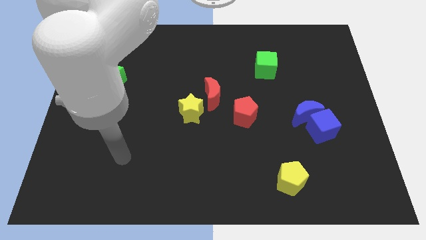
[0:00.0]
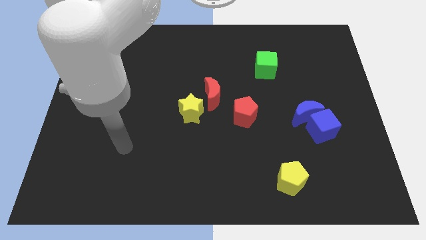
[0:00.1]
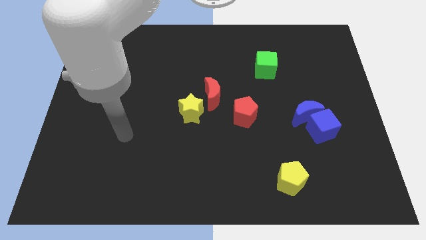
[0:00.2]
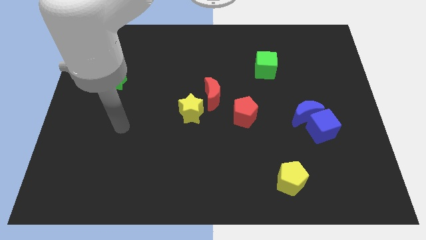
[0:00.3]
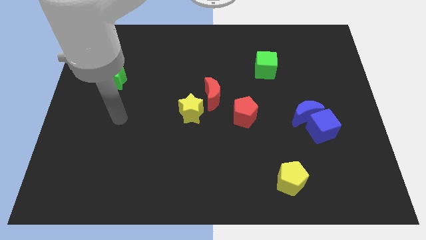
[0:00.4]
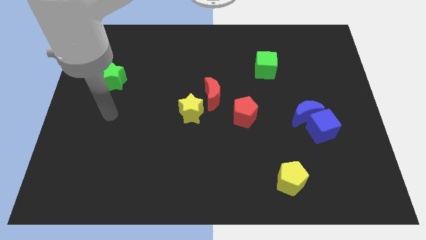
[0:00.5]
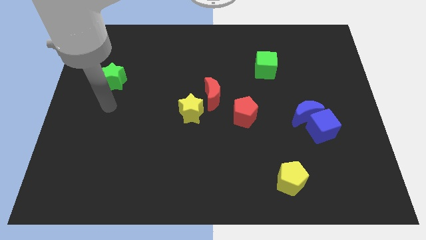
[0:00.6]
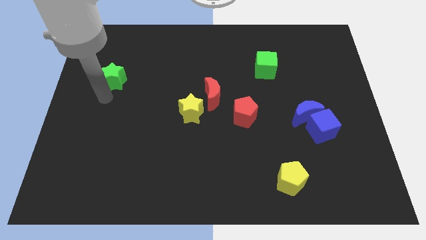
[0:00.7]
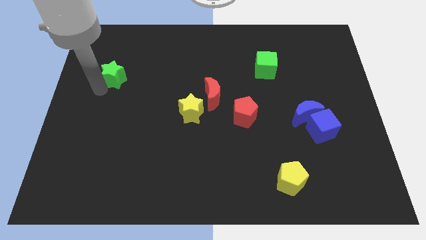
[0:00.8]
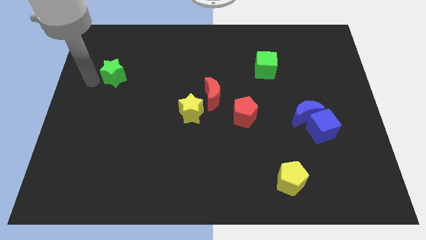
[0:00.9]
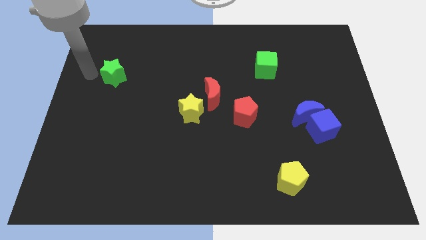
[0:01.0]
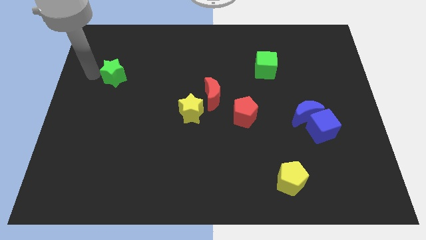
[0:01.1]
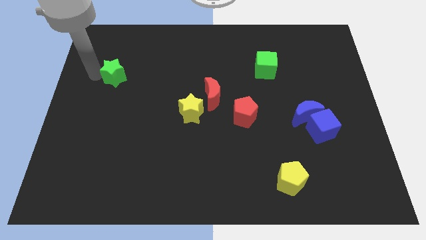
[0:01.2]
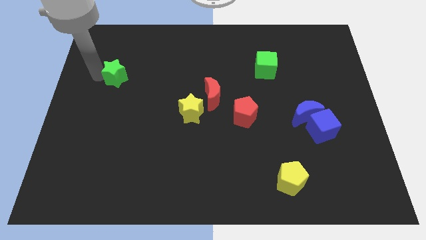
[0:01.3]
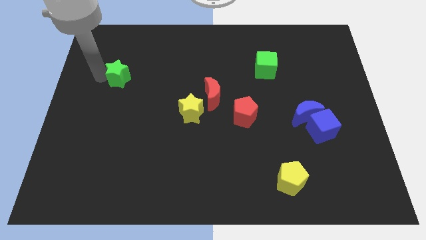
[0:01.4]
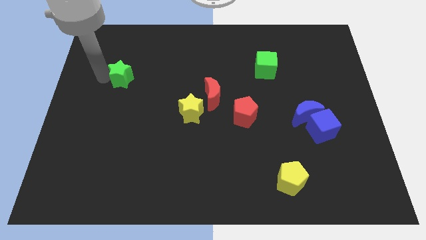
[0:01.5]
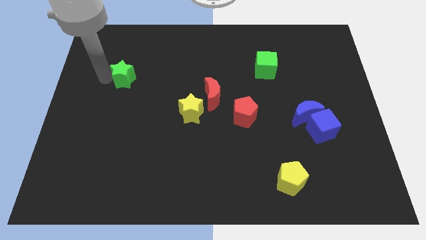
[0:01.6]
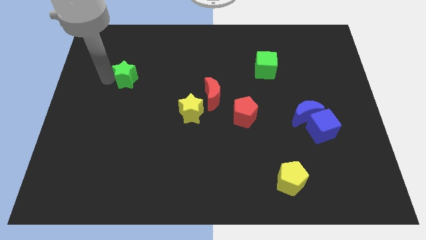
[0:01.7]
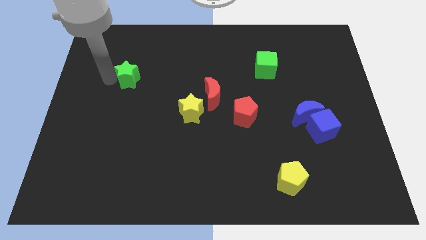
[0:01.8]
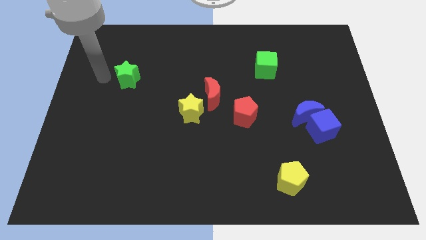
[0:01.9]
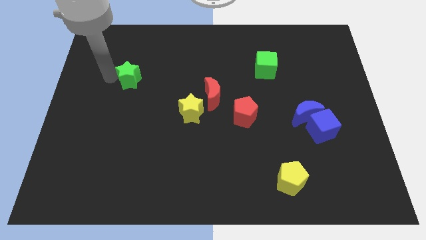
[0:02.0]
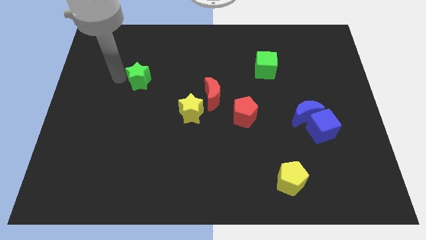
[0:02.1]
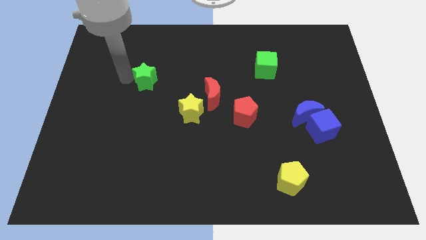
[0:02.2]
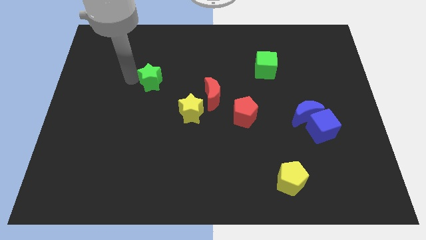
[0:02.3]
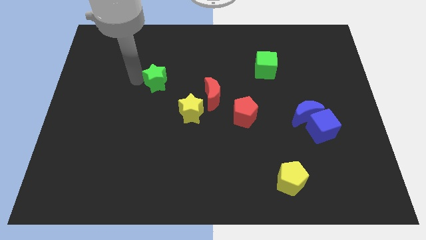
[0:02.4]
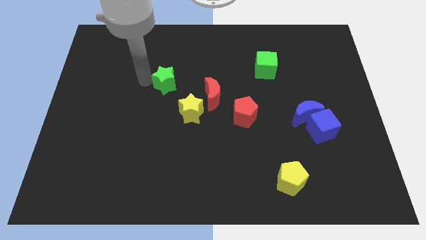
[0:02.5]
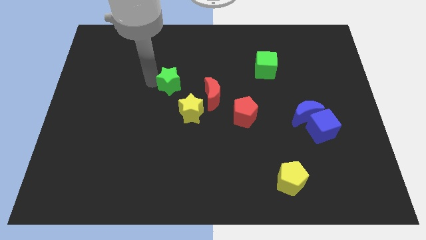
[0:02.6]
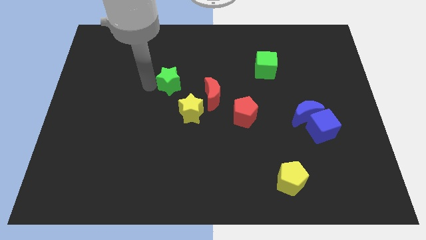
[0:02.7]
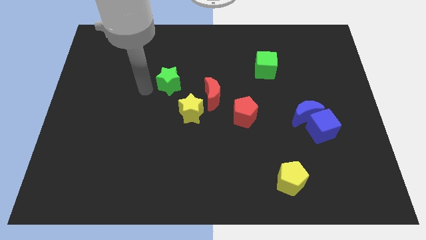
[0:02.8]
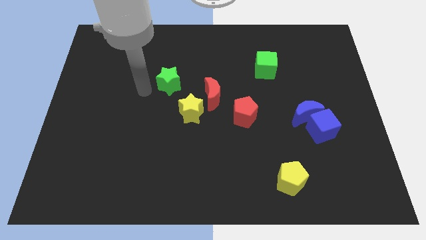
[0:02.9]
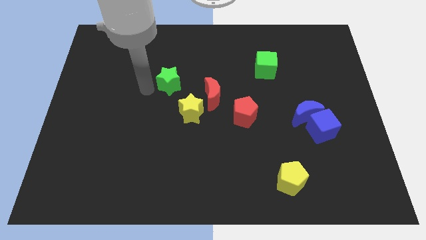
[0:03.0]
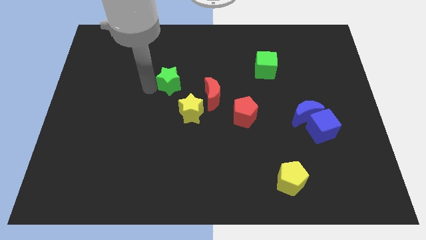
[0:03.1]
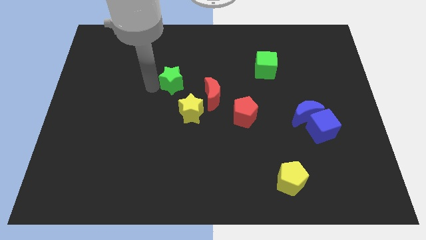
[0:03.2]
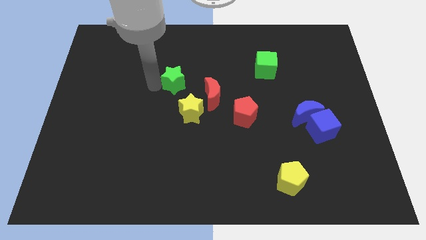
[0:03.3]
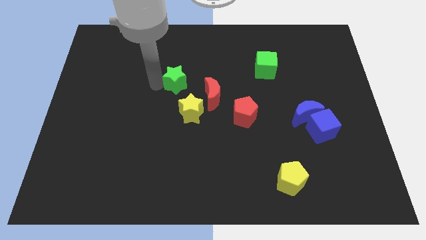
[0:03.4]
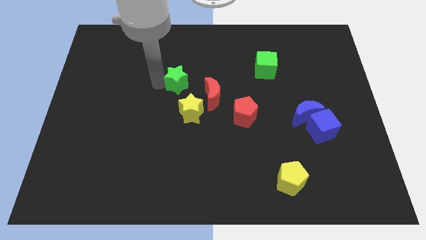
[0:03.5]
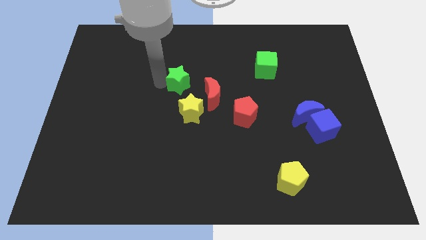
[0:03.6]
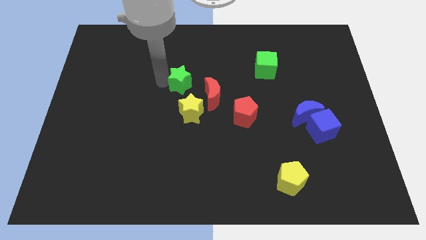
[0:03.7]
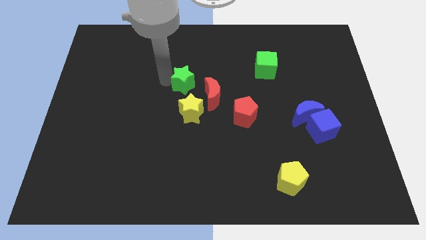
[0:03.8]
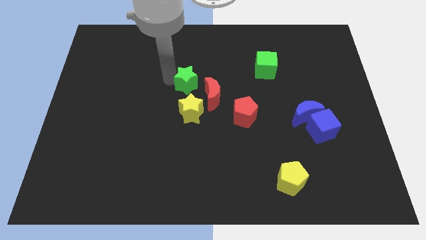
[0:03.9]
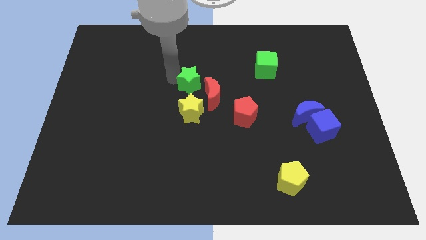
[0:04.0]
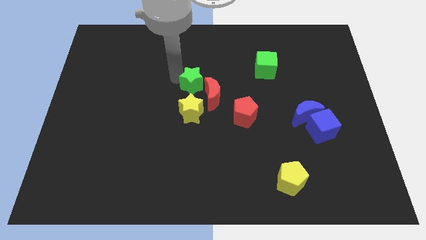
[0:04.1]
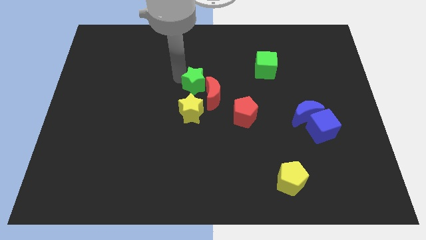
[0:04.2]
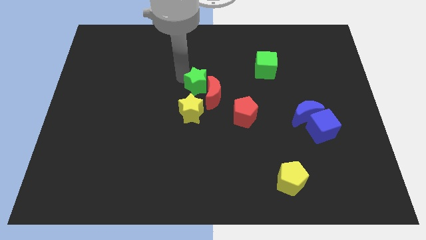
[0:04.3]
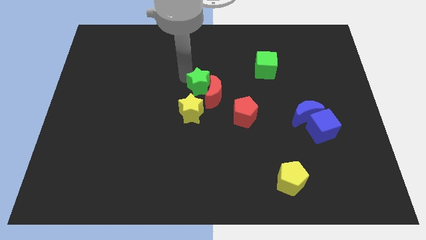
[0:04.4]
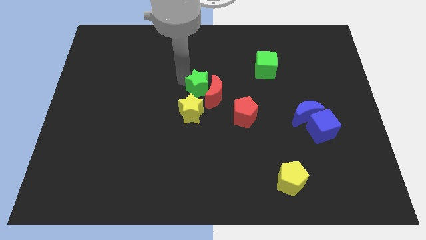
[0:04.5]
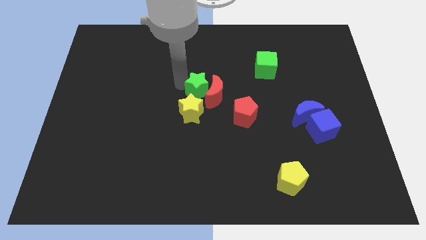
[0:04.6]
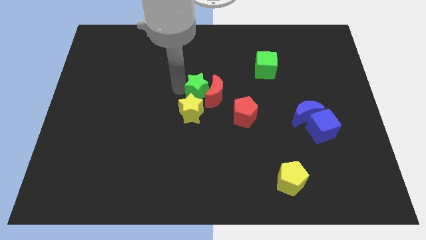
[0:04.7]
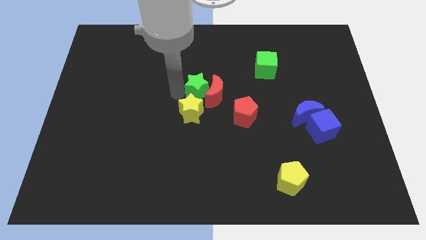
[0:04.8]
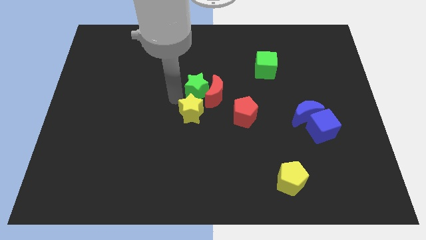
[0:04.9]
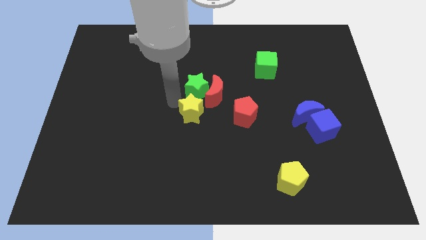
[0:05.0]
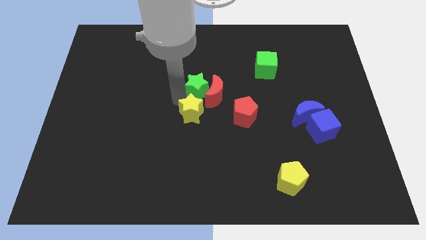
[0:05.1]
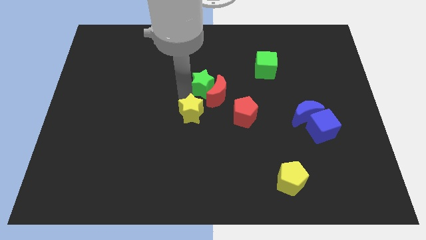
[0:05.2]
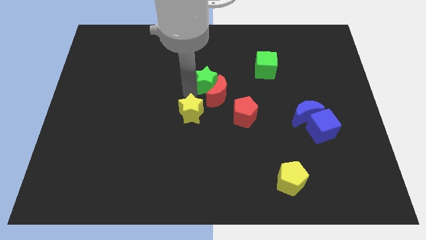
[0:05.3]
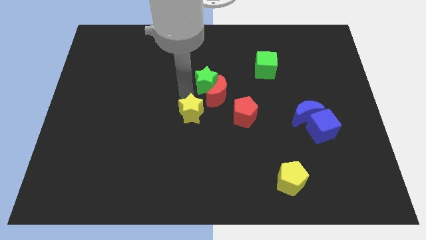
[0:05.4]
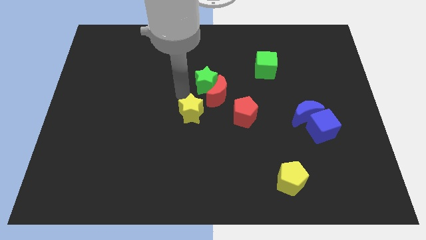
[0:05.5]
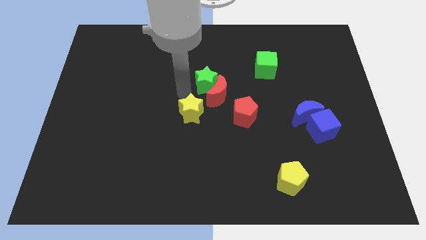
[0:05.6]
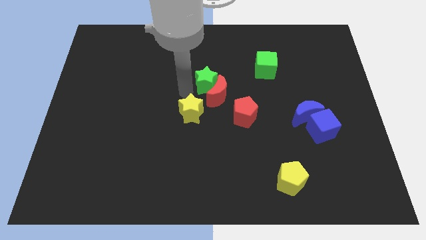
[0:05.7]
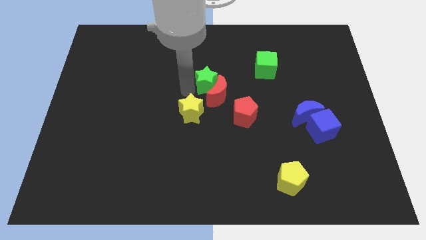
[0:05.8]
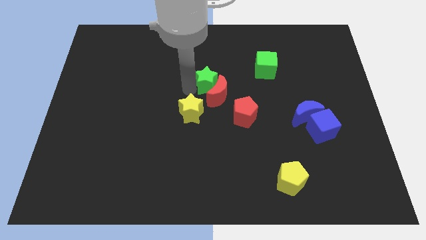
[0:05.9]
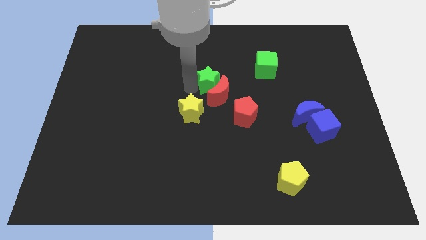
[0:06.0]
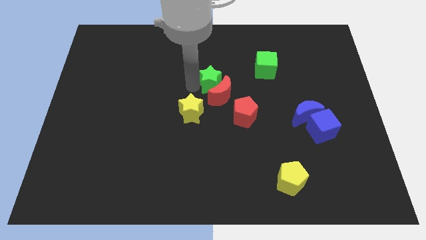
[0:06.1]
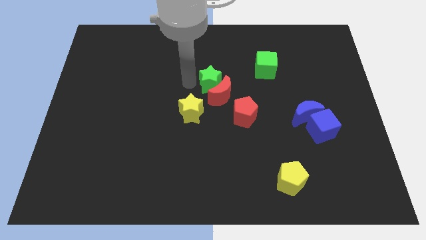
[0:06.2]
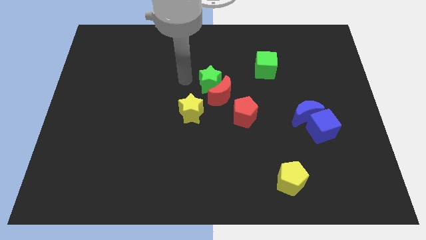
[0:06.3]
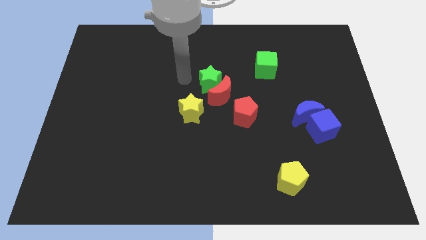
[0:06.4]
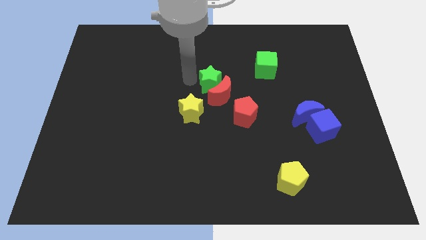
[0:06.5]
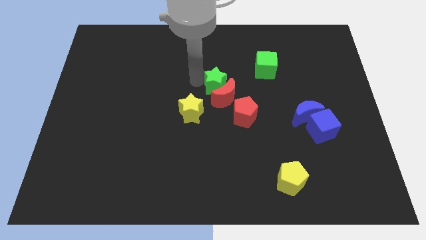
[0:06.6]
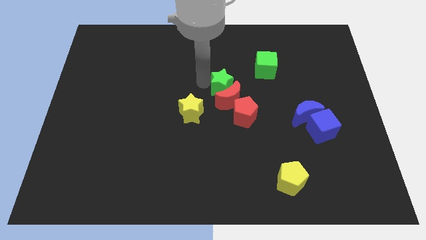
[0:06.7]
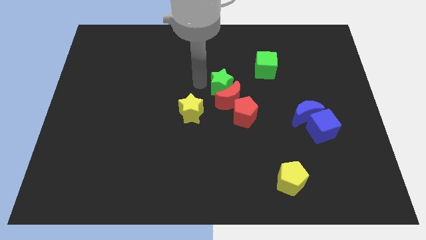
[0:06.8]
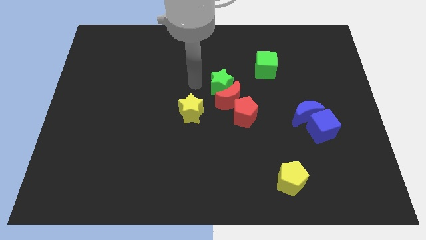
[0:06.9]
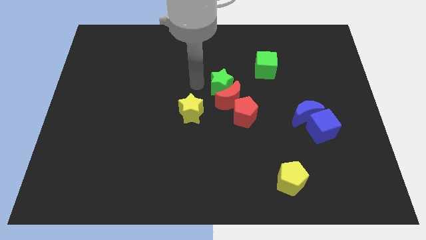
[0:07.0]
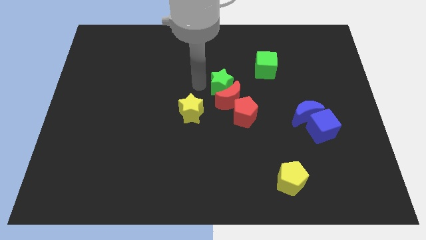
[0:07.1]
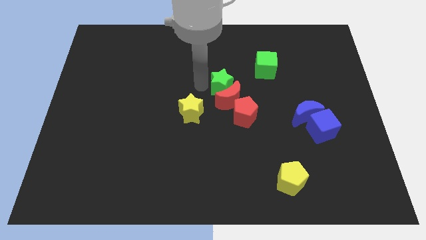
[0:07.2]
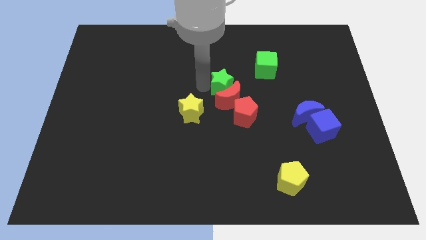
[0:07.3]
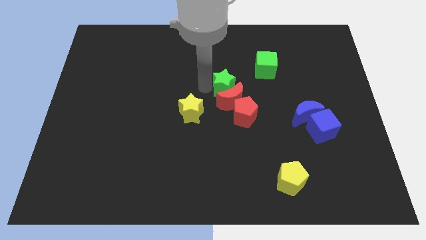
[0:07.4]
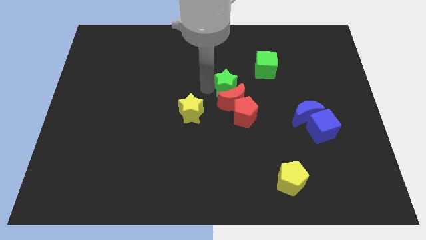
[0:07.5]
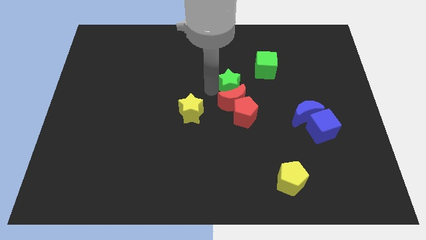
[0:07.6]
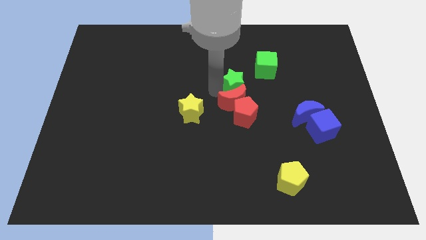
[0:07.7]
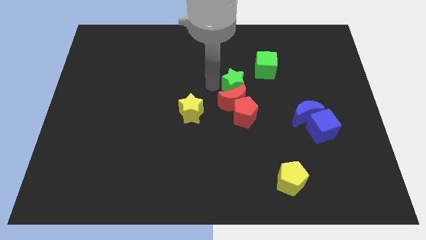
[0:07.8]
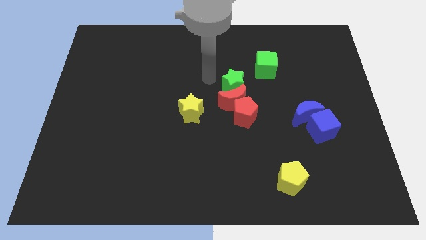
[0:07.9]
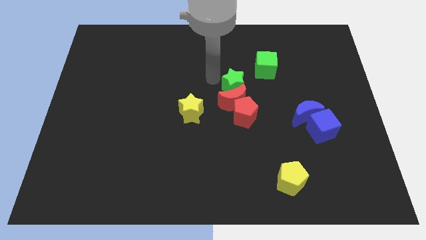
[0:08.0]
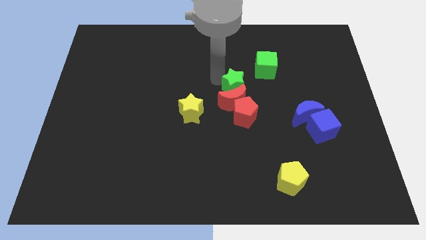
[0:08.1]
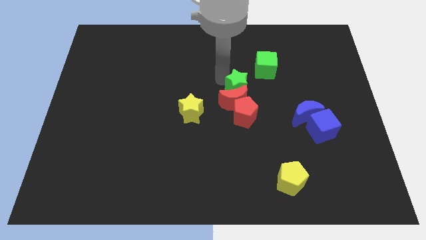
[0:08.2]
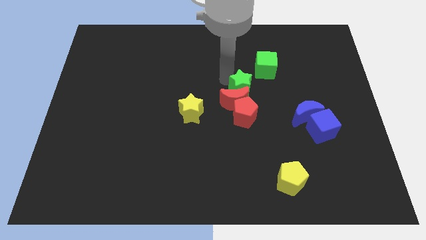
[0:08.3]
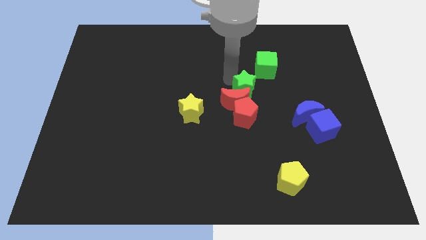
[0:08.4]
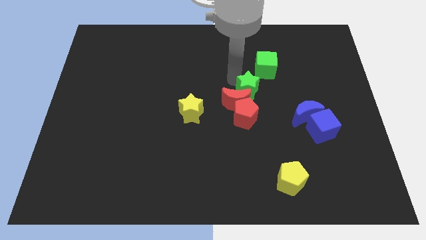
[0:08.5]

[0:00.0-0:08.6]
slide the green star right of the red moon
